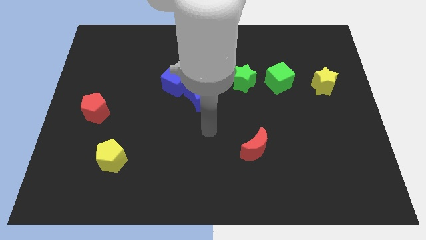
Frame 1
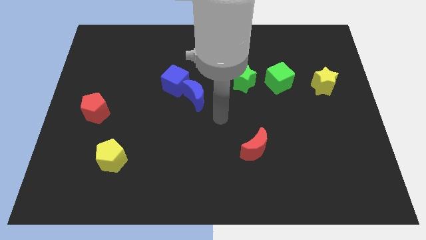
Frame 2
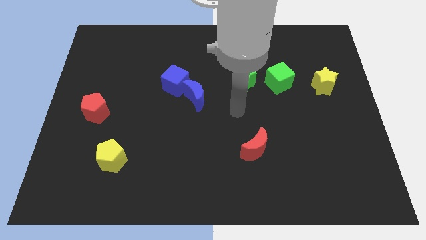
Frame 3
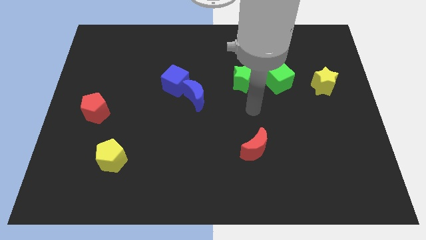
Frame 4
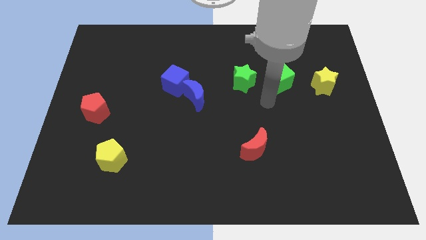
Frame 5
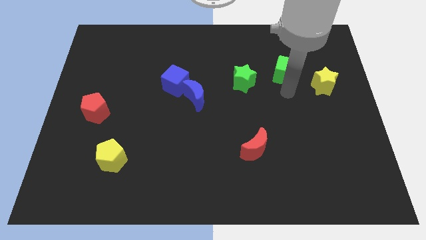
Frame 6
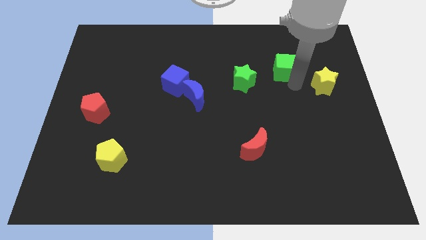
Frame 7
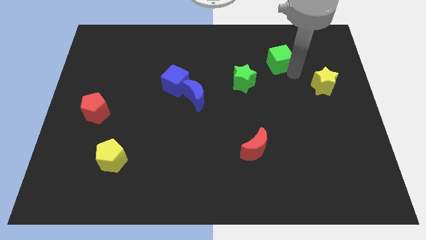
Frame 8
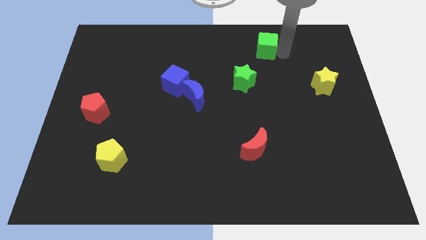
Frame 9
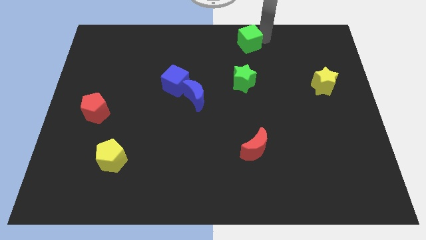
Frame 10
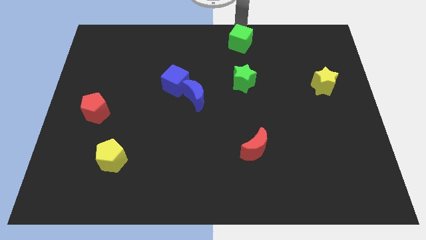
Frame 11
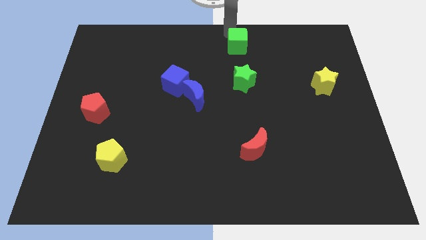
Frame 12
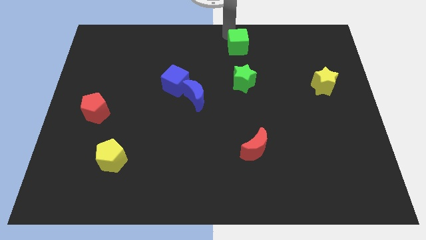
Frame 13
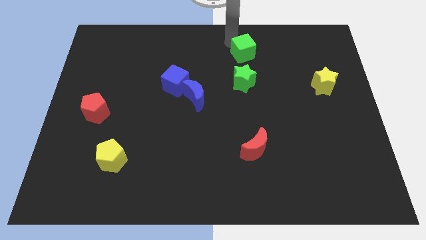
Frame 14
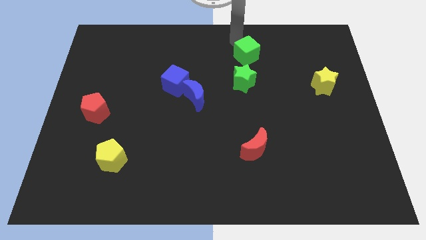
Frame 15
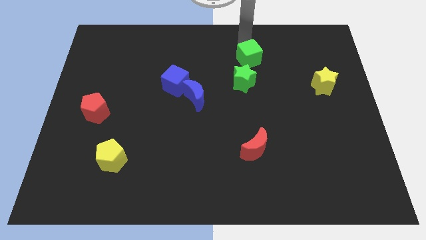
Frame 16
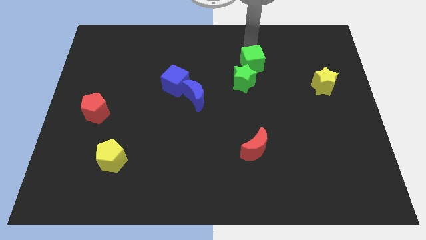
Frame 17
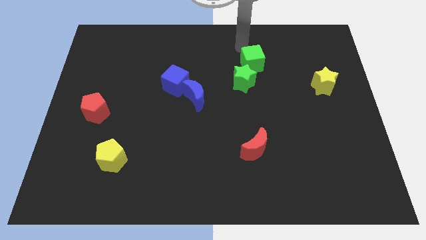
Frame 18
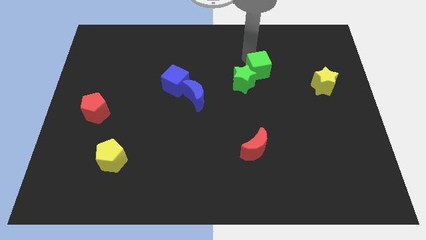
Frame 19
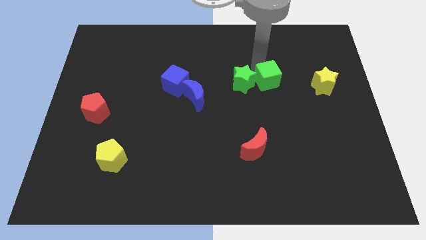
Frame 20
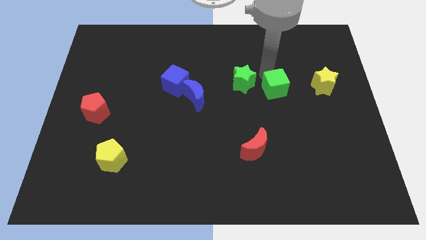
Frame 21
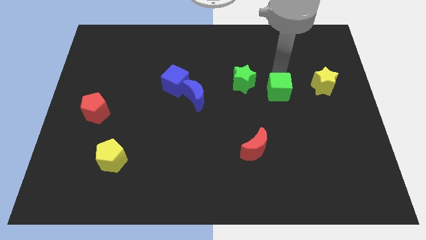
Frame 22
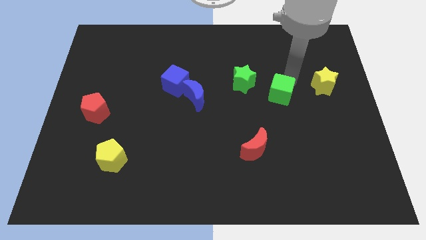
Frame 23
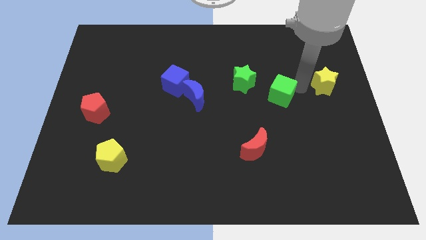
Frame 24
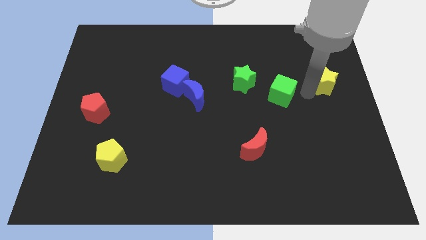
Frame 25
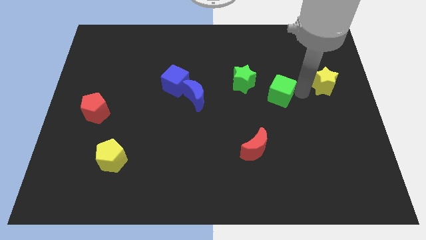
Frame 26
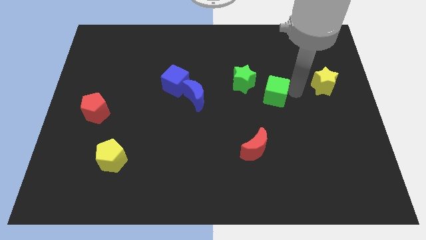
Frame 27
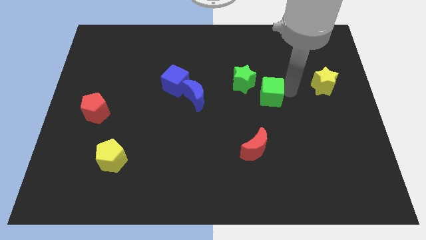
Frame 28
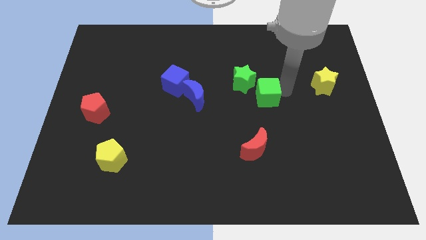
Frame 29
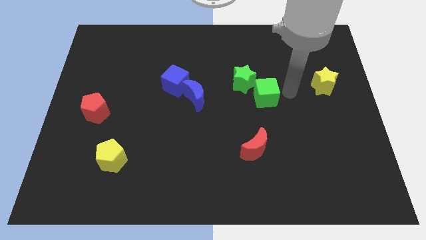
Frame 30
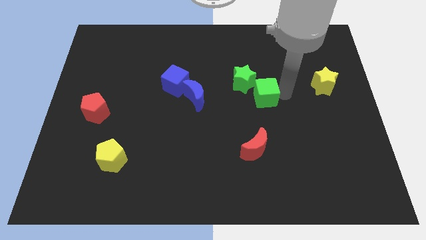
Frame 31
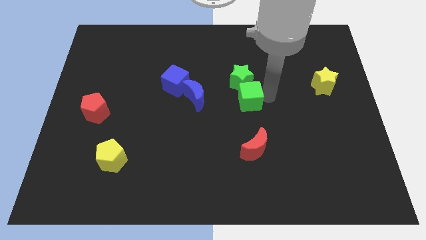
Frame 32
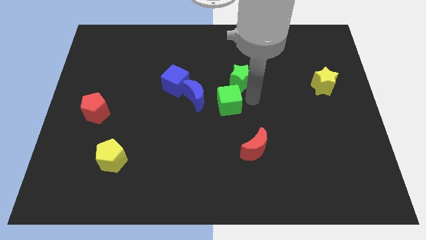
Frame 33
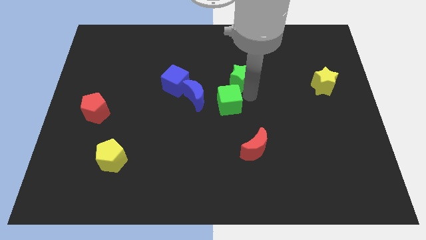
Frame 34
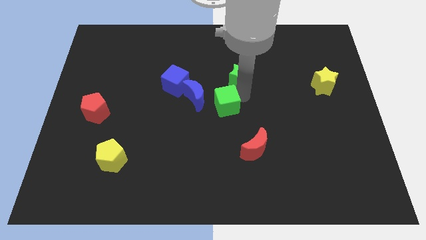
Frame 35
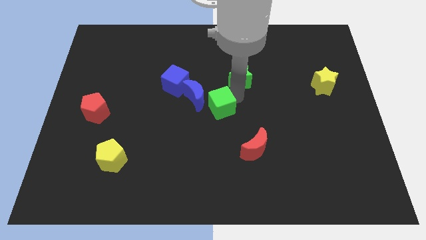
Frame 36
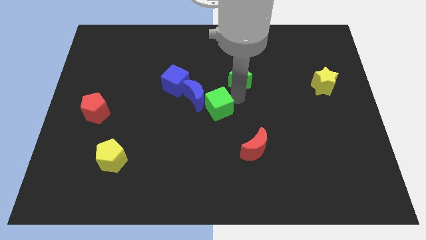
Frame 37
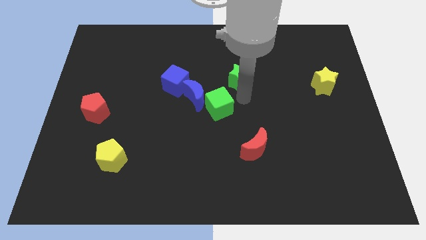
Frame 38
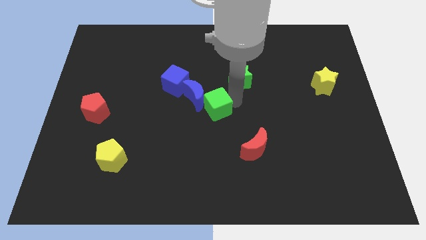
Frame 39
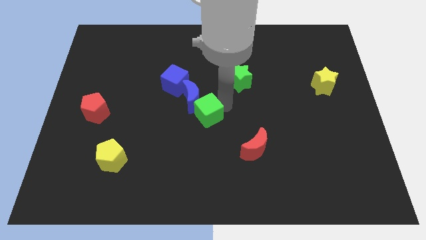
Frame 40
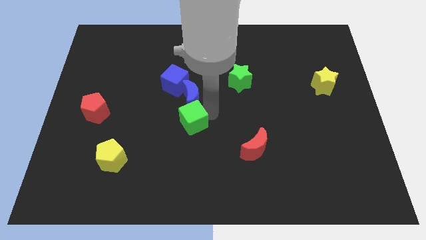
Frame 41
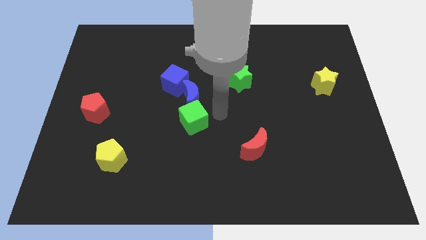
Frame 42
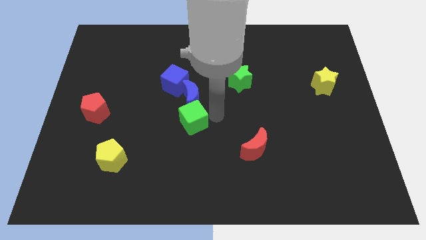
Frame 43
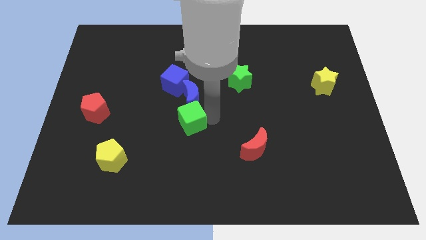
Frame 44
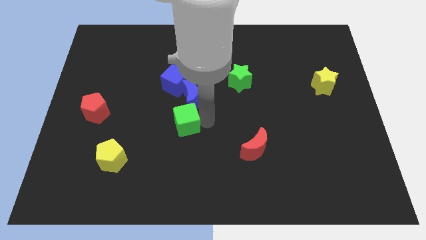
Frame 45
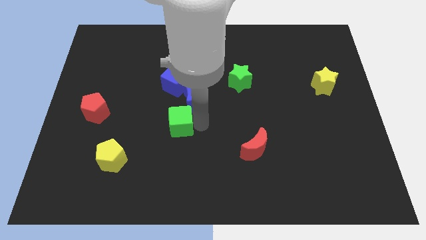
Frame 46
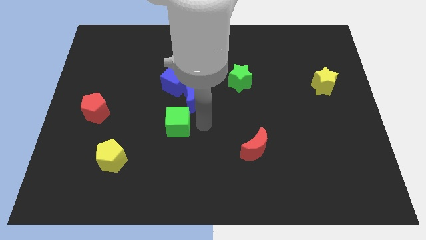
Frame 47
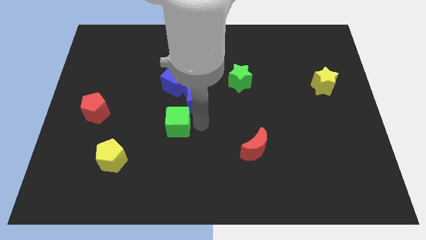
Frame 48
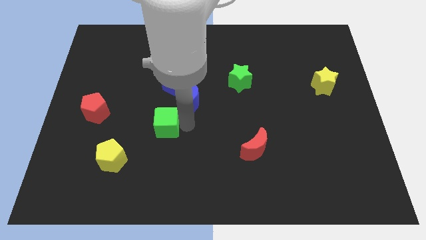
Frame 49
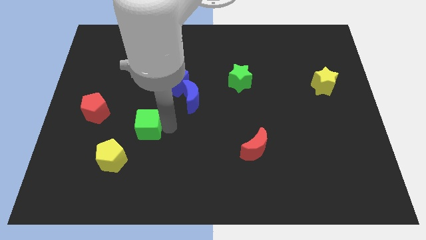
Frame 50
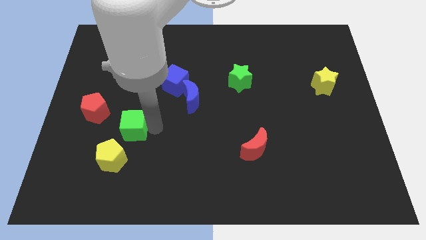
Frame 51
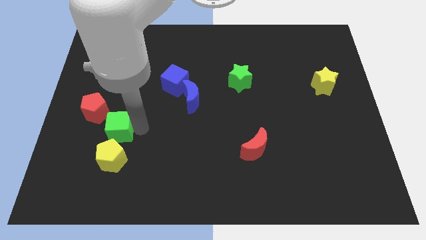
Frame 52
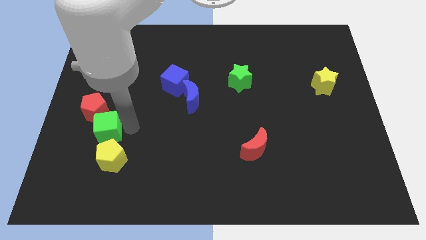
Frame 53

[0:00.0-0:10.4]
push the green cube below the red pentagon

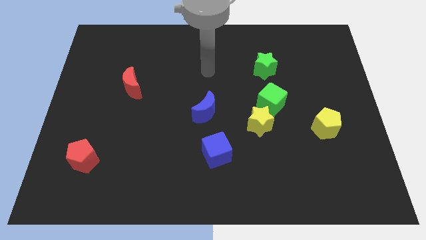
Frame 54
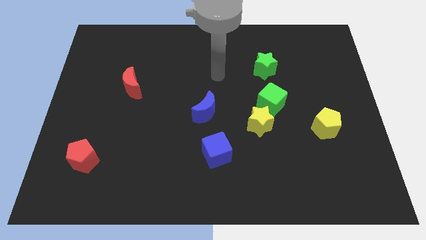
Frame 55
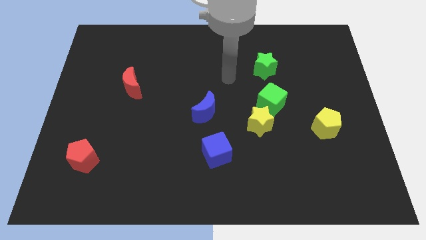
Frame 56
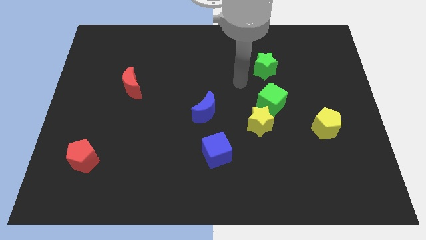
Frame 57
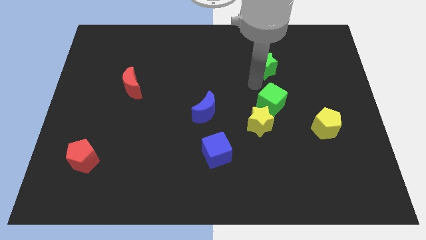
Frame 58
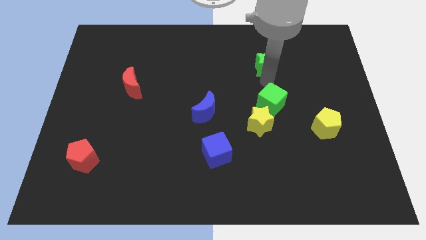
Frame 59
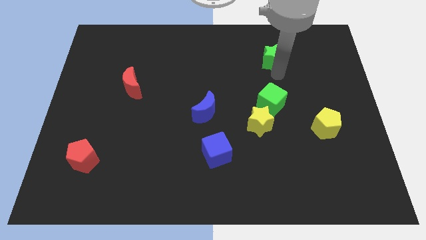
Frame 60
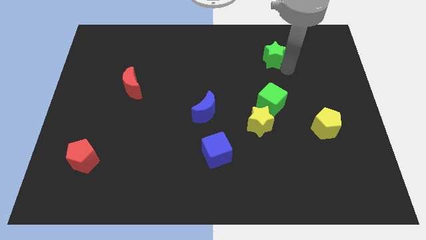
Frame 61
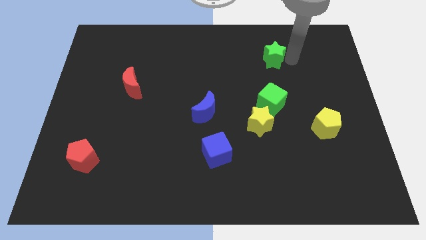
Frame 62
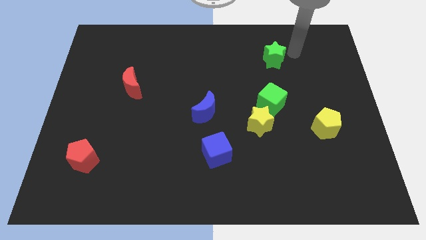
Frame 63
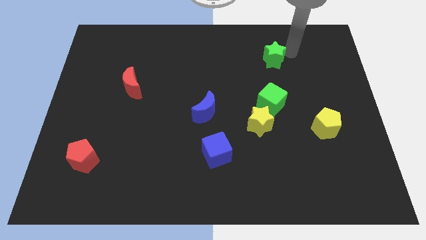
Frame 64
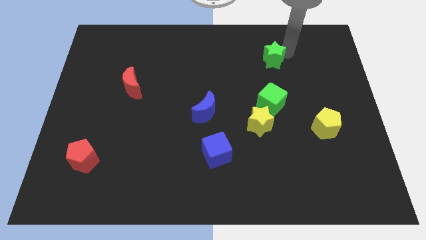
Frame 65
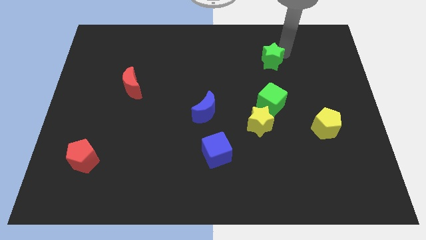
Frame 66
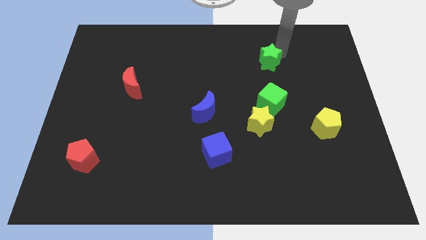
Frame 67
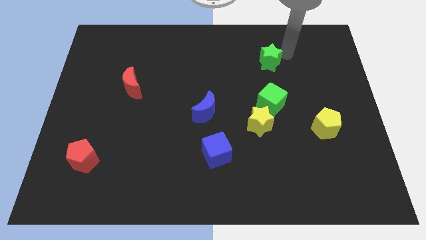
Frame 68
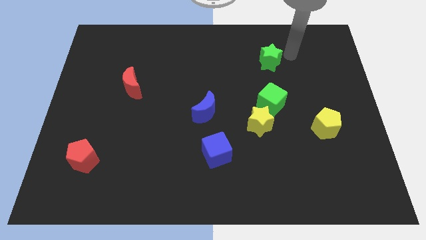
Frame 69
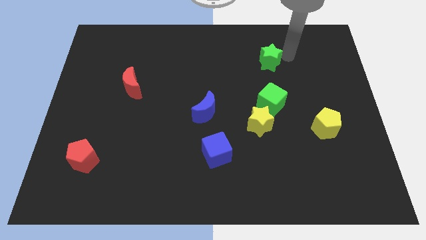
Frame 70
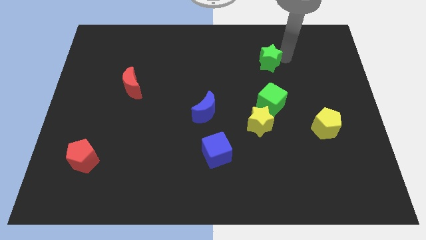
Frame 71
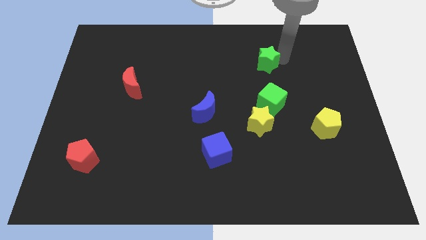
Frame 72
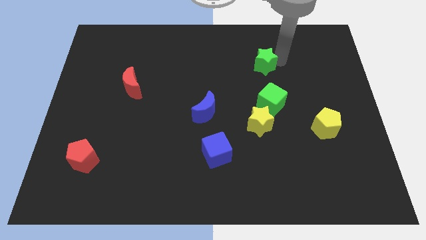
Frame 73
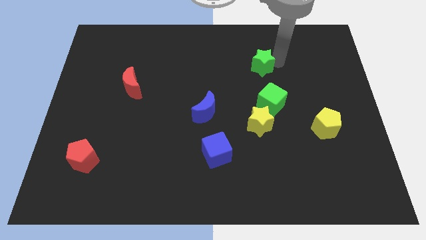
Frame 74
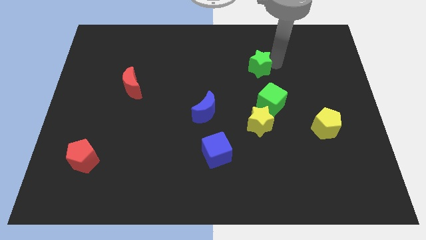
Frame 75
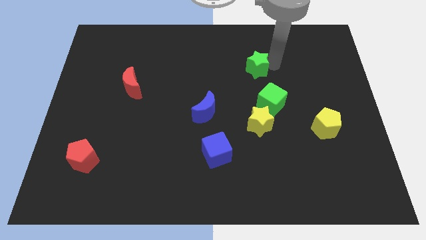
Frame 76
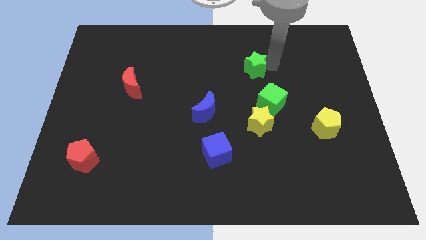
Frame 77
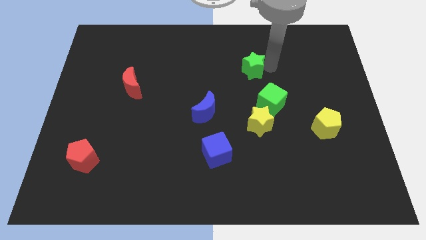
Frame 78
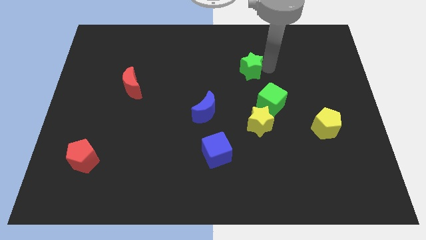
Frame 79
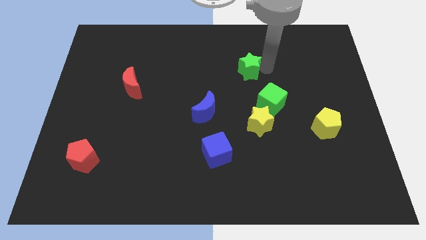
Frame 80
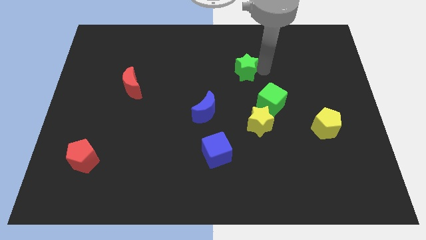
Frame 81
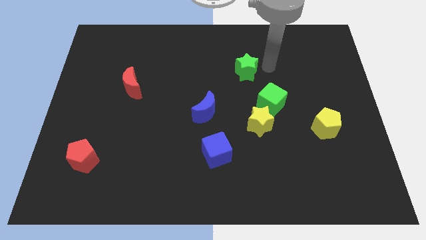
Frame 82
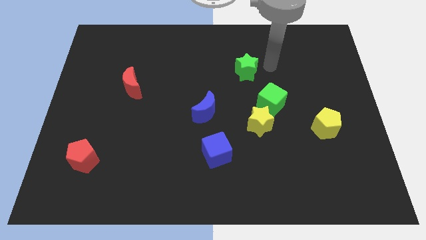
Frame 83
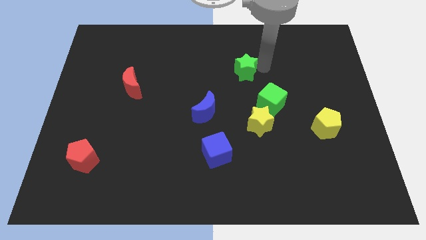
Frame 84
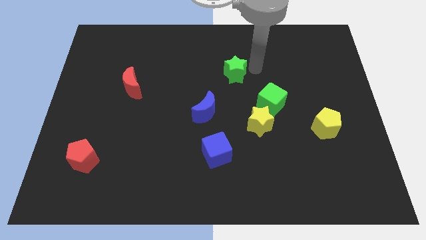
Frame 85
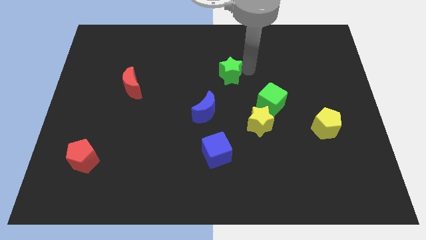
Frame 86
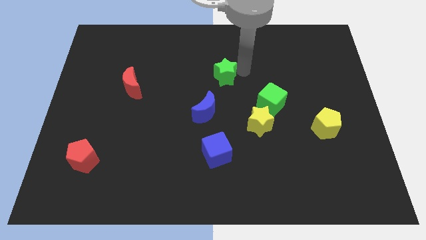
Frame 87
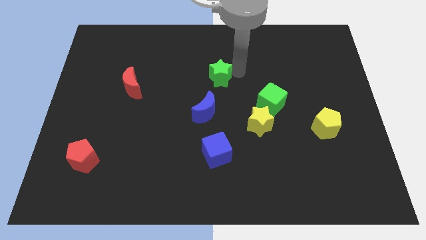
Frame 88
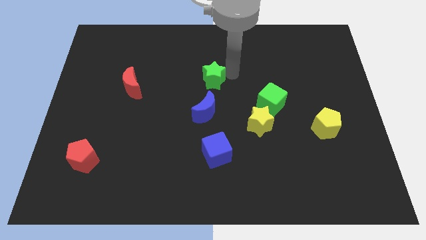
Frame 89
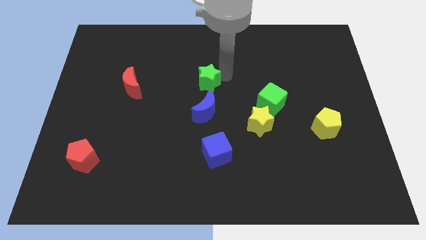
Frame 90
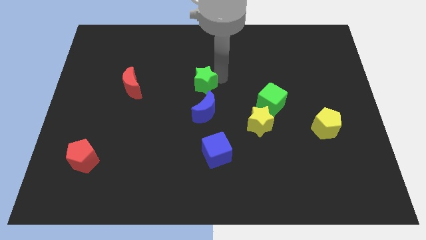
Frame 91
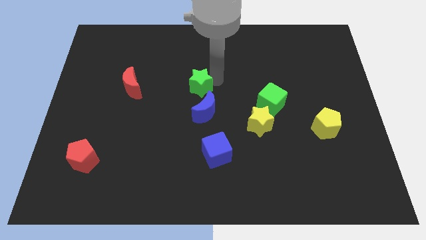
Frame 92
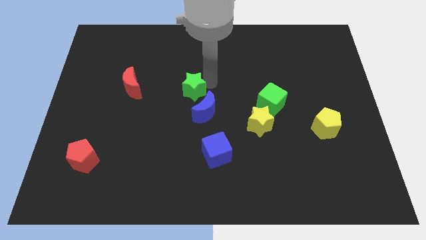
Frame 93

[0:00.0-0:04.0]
push the green star to the right side of the red moon
